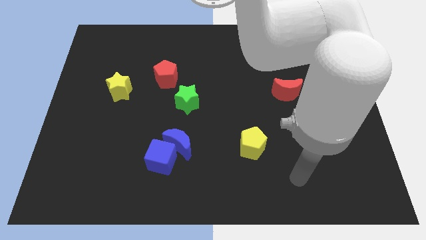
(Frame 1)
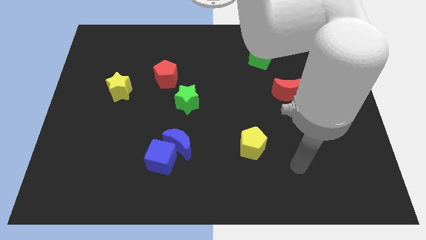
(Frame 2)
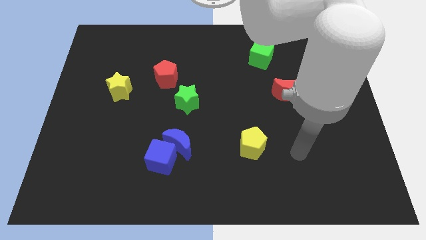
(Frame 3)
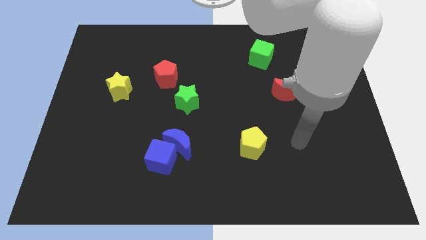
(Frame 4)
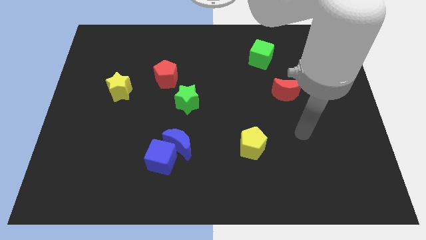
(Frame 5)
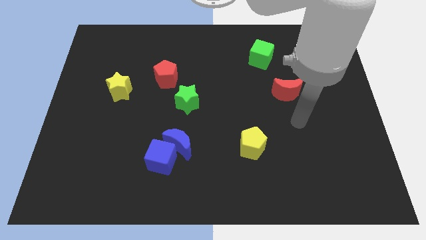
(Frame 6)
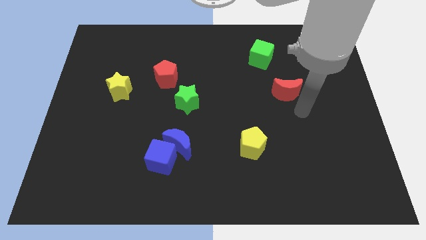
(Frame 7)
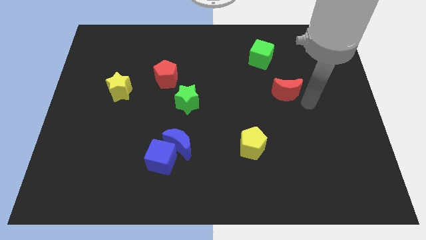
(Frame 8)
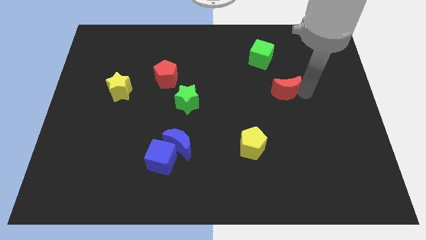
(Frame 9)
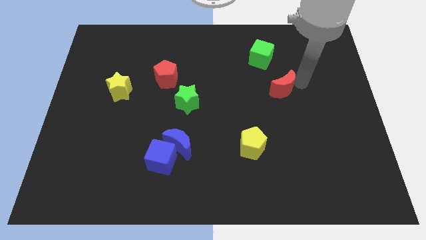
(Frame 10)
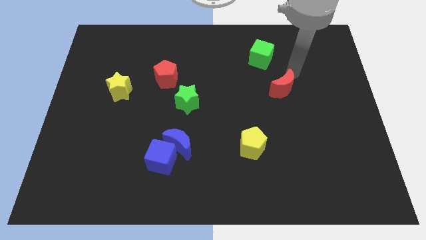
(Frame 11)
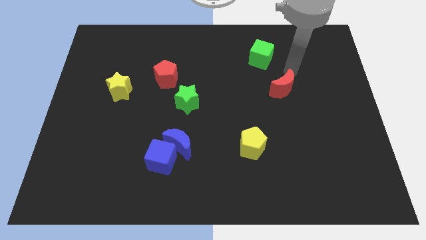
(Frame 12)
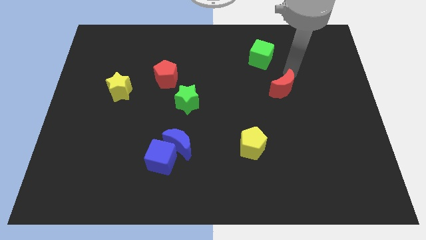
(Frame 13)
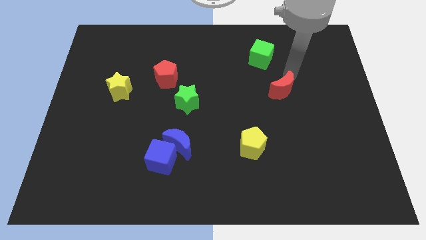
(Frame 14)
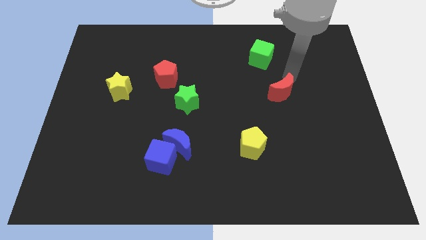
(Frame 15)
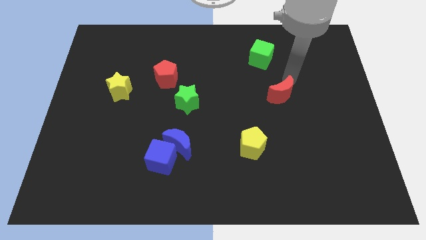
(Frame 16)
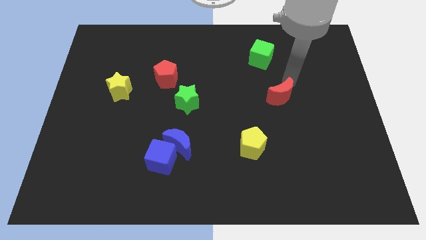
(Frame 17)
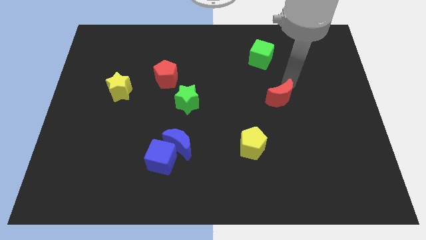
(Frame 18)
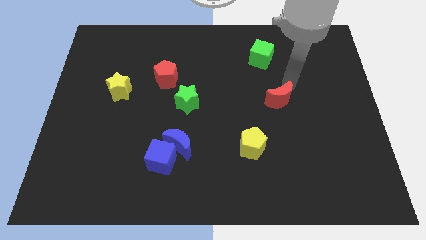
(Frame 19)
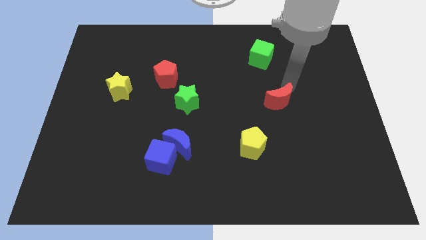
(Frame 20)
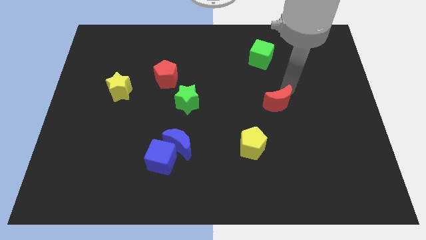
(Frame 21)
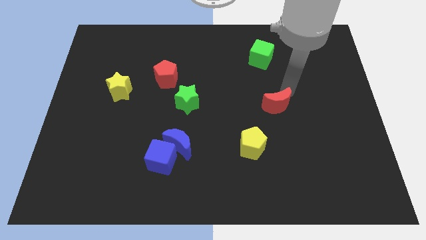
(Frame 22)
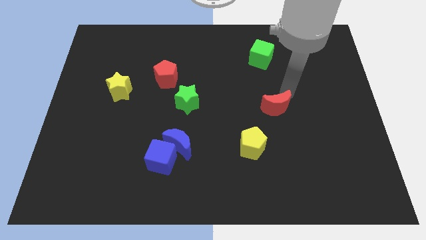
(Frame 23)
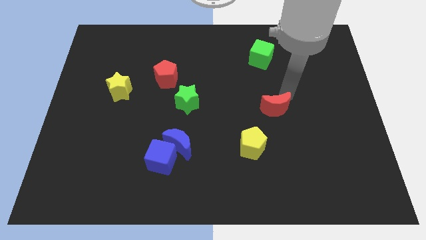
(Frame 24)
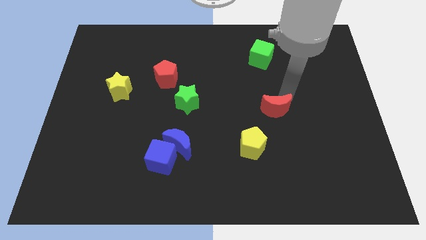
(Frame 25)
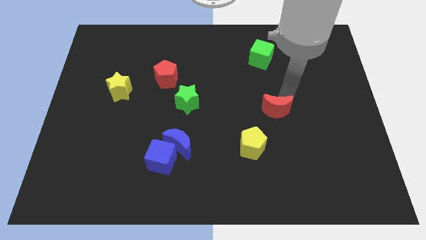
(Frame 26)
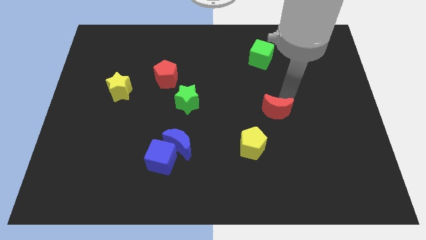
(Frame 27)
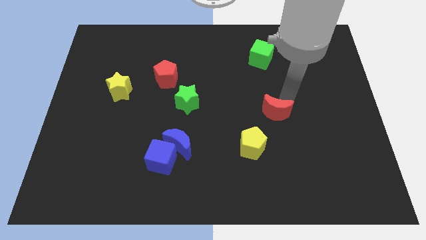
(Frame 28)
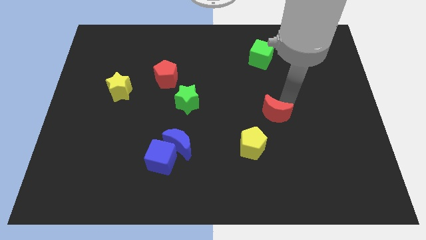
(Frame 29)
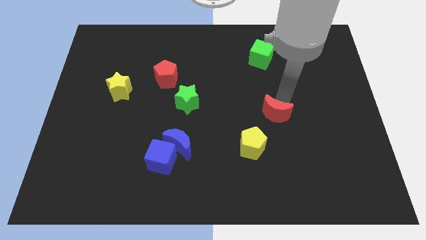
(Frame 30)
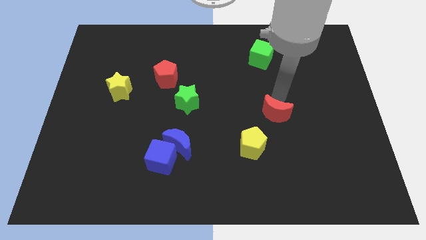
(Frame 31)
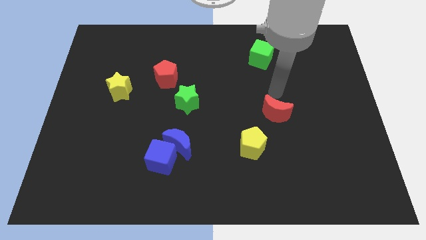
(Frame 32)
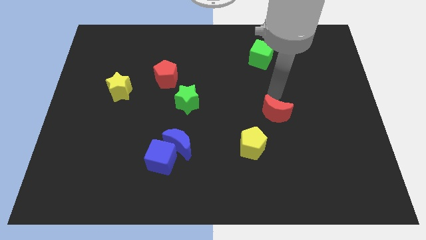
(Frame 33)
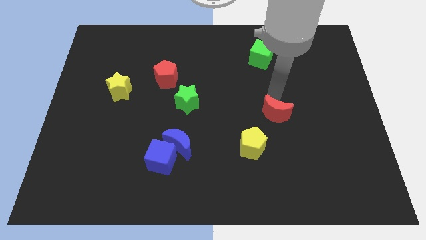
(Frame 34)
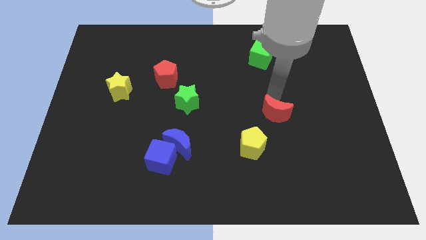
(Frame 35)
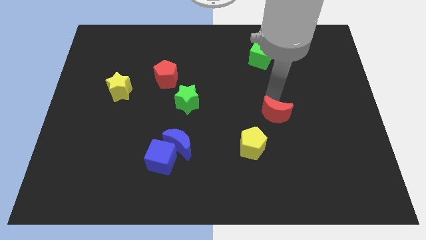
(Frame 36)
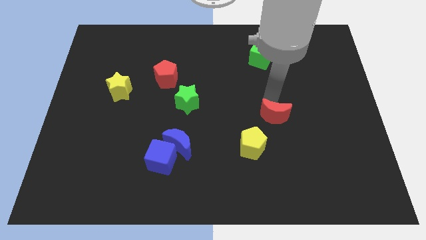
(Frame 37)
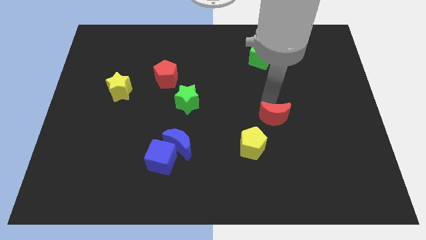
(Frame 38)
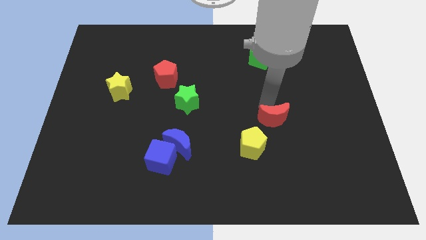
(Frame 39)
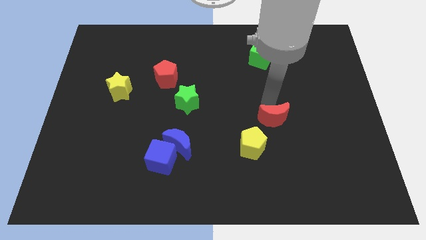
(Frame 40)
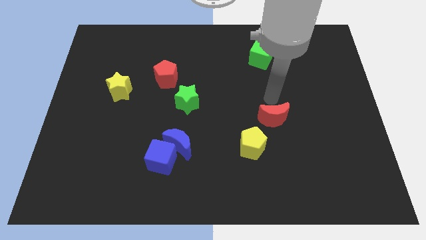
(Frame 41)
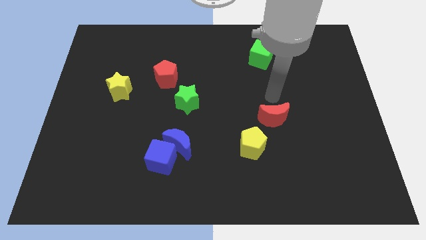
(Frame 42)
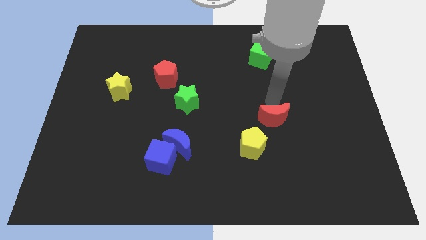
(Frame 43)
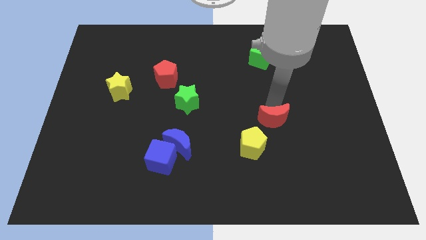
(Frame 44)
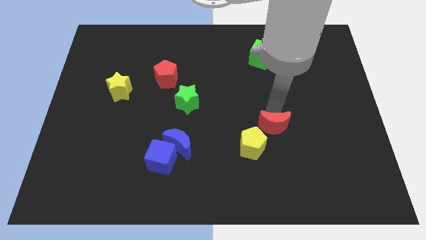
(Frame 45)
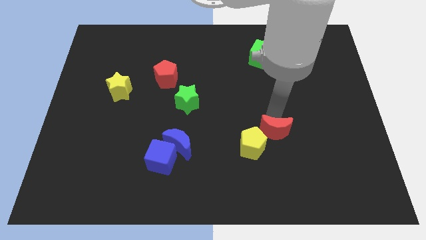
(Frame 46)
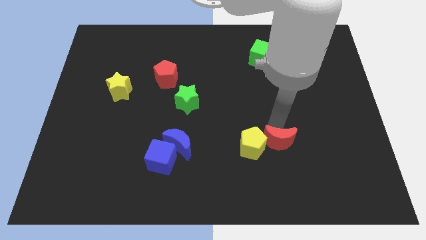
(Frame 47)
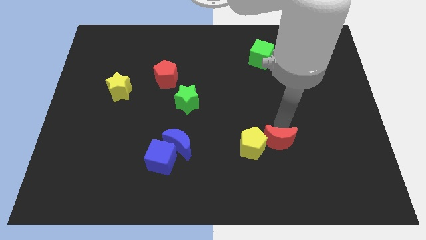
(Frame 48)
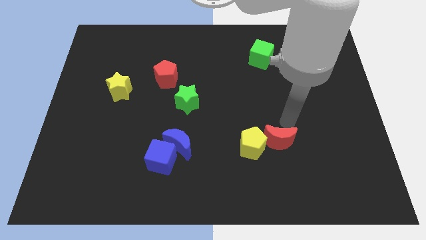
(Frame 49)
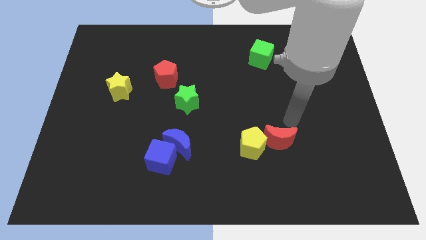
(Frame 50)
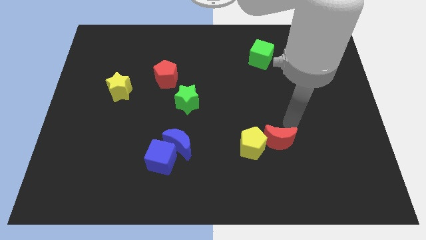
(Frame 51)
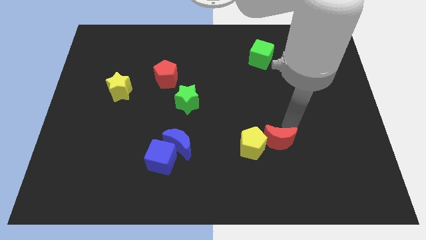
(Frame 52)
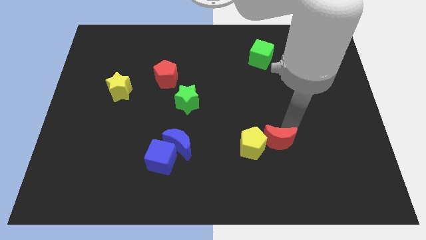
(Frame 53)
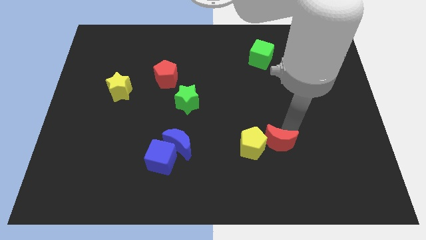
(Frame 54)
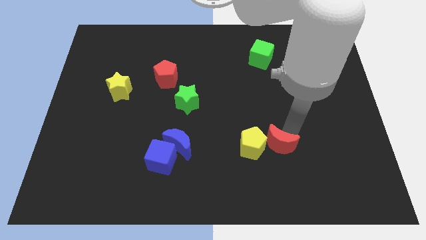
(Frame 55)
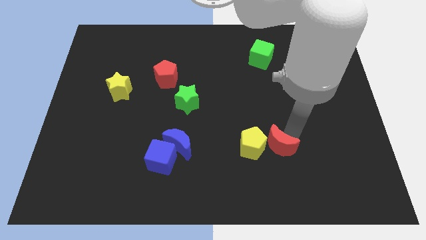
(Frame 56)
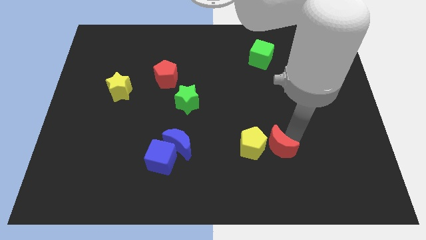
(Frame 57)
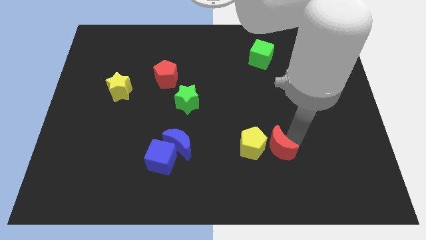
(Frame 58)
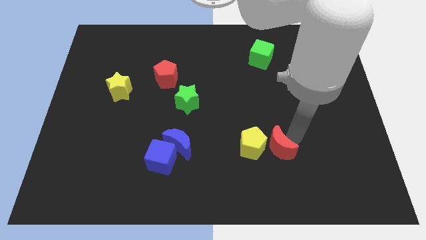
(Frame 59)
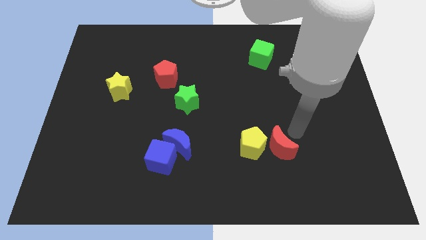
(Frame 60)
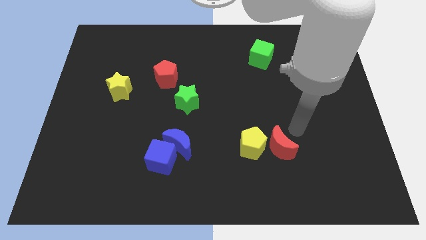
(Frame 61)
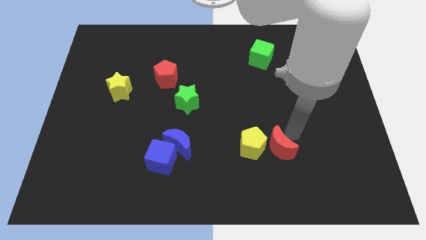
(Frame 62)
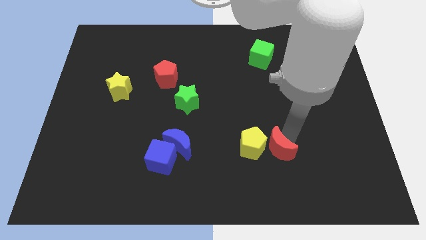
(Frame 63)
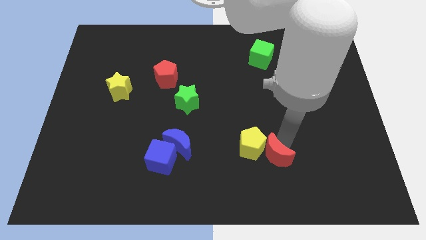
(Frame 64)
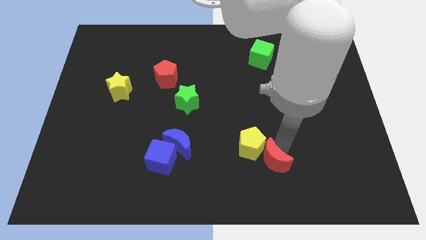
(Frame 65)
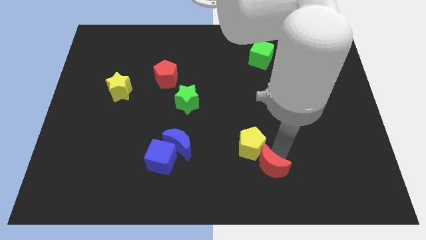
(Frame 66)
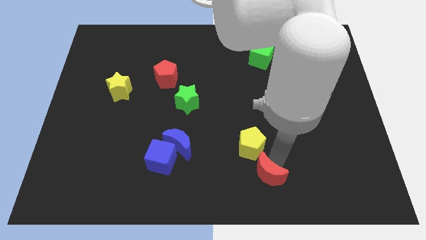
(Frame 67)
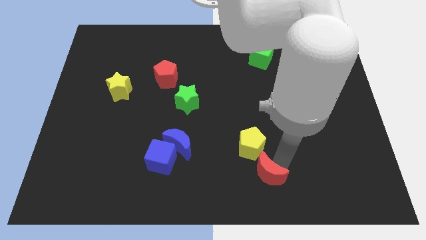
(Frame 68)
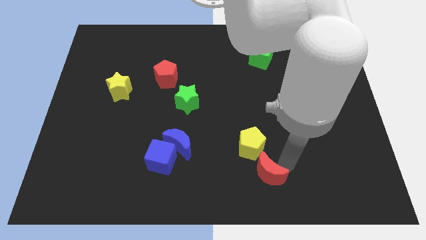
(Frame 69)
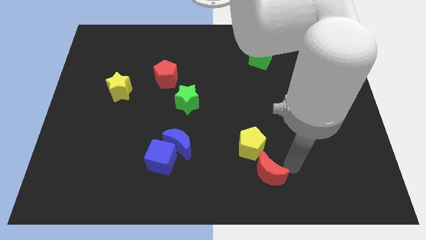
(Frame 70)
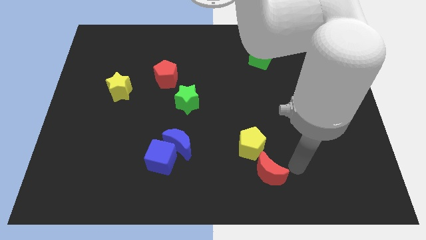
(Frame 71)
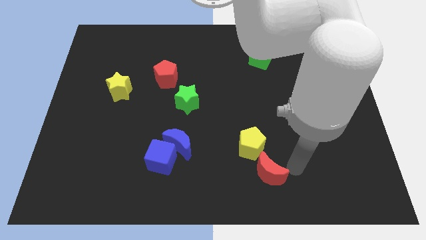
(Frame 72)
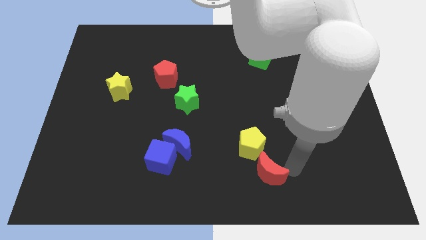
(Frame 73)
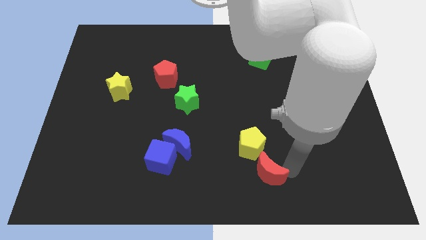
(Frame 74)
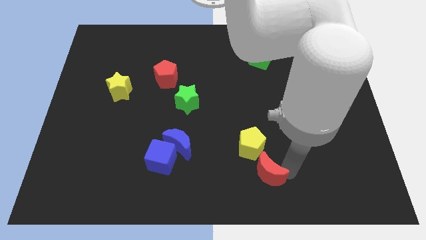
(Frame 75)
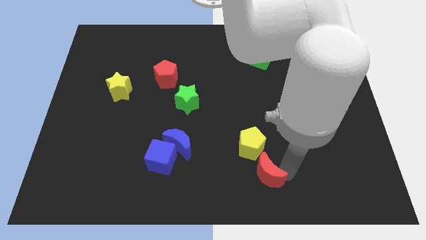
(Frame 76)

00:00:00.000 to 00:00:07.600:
put the red moon to the bottom side
